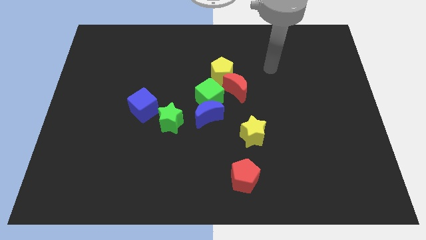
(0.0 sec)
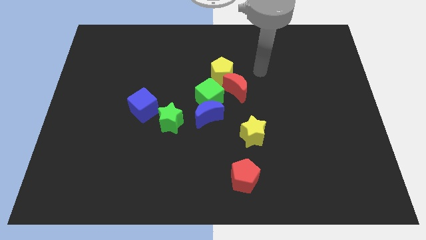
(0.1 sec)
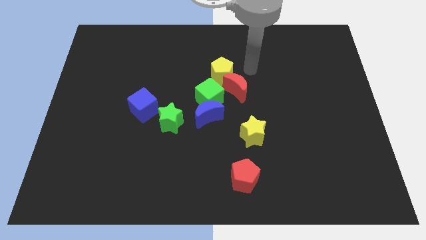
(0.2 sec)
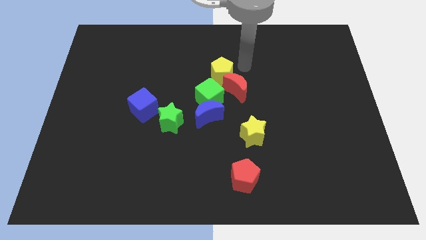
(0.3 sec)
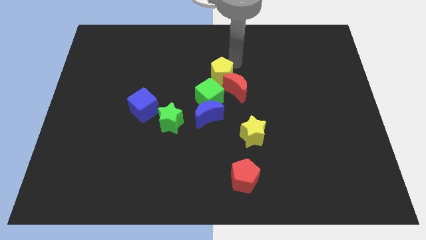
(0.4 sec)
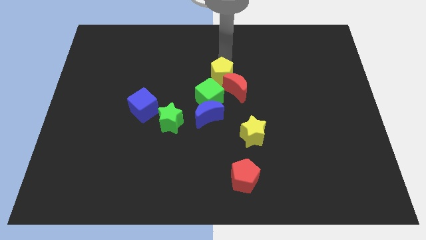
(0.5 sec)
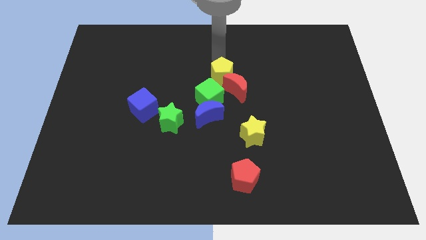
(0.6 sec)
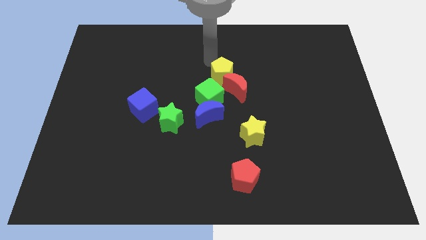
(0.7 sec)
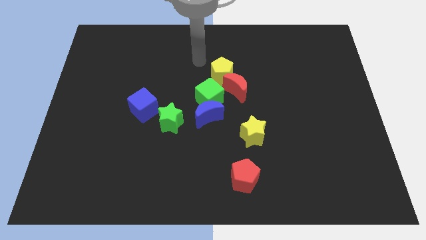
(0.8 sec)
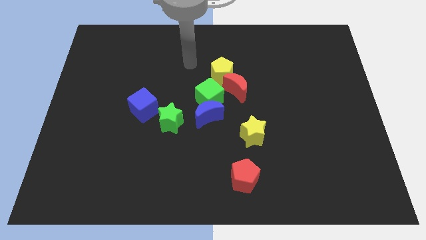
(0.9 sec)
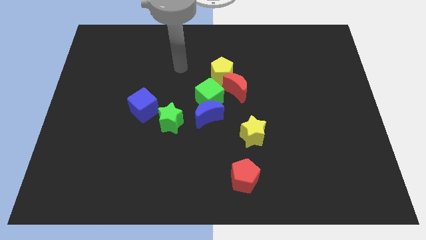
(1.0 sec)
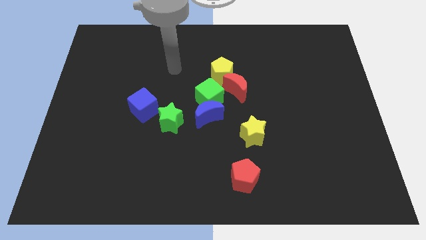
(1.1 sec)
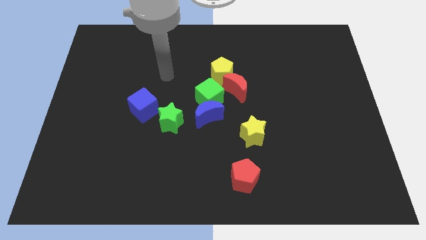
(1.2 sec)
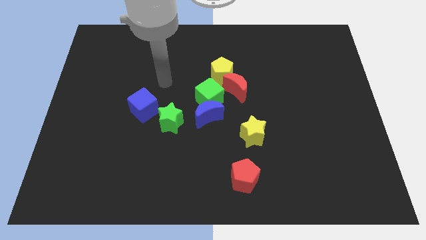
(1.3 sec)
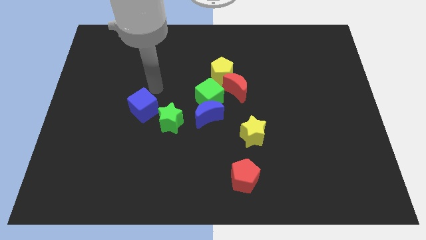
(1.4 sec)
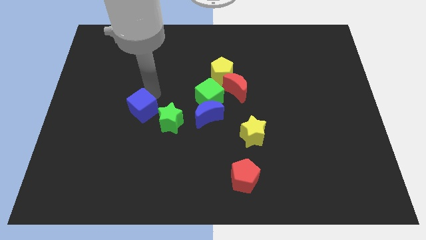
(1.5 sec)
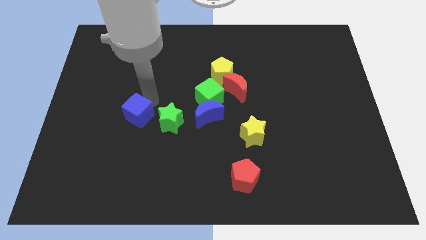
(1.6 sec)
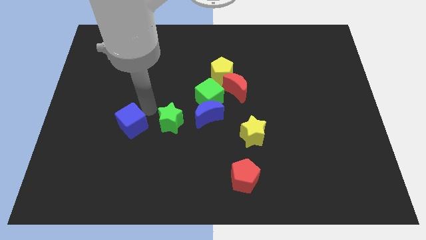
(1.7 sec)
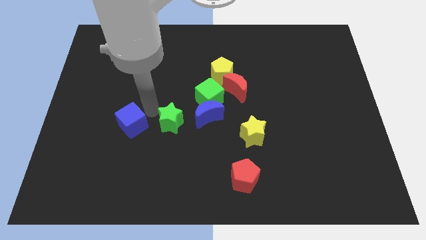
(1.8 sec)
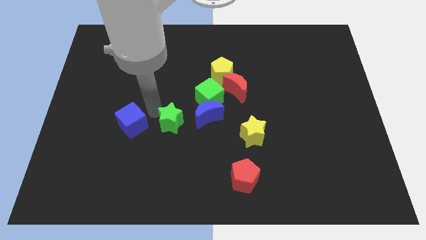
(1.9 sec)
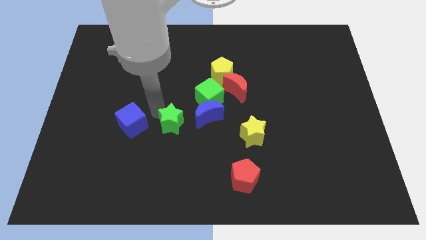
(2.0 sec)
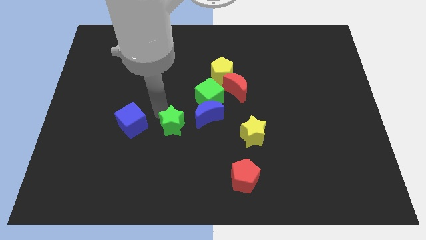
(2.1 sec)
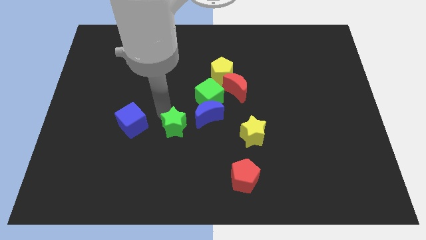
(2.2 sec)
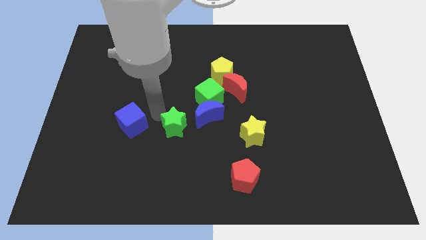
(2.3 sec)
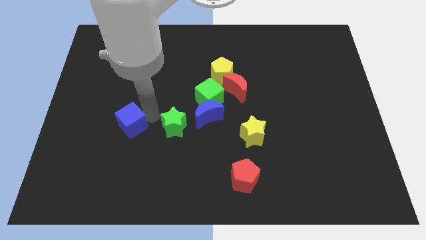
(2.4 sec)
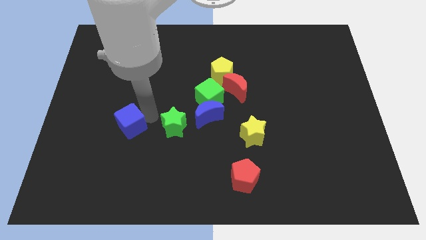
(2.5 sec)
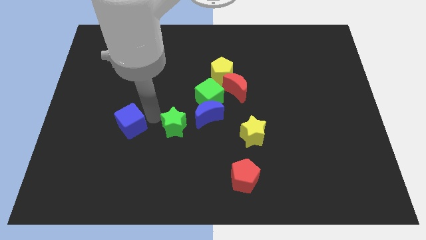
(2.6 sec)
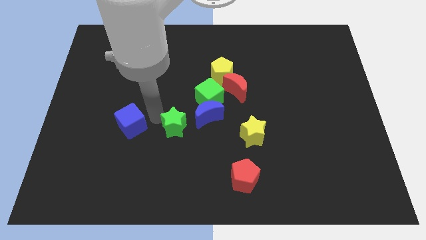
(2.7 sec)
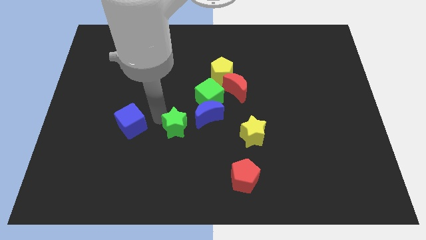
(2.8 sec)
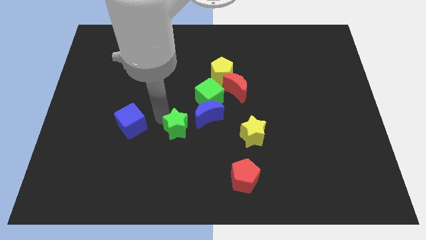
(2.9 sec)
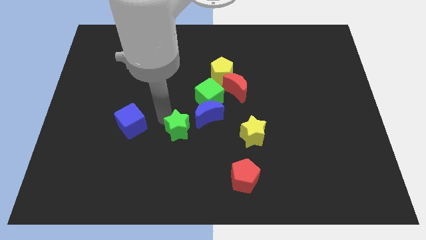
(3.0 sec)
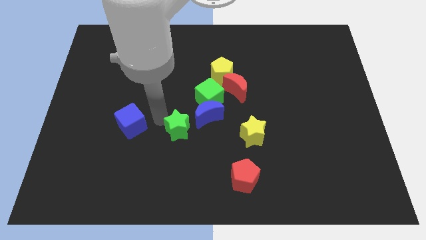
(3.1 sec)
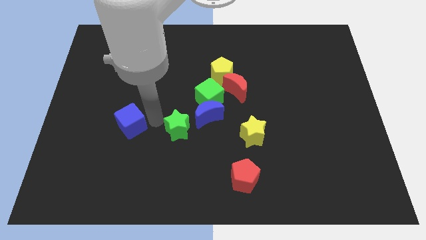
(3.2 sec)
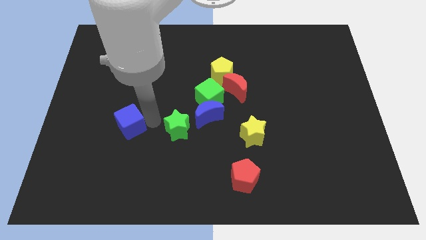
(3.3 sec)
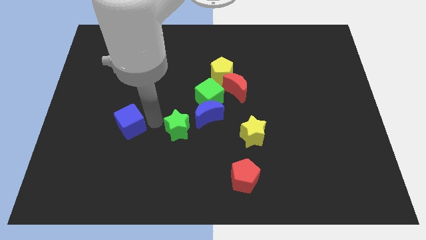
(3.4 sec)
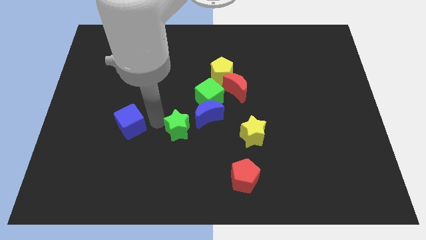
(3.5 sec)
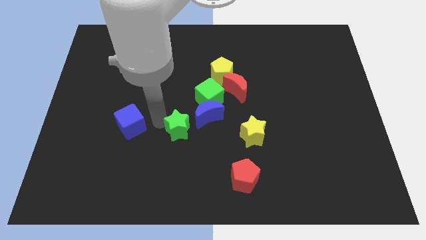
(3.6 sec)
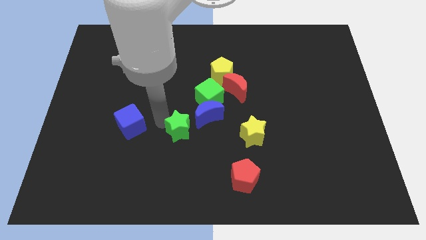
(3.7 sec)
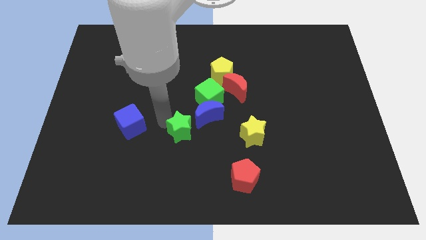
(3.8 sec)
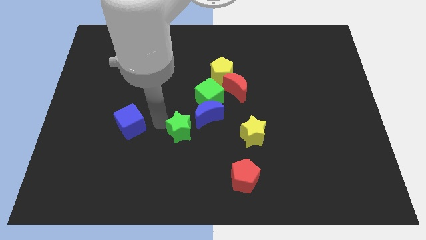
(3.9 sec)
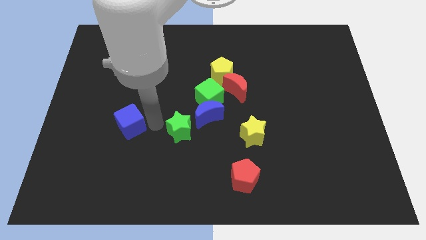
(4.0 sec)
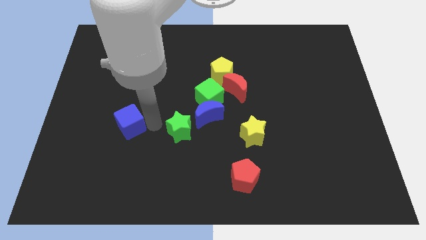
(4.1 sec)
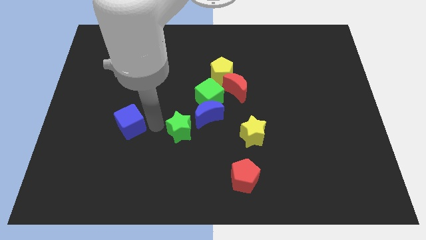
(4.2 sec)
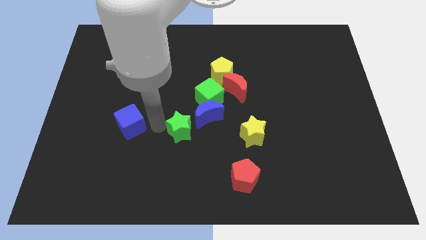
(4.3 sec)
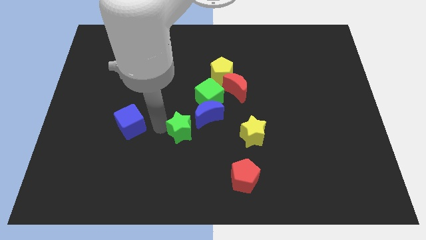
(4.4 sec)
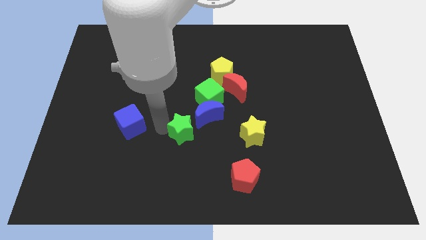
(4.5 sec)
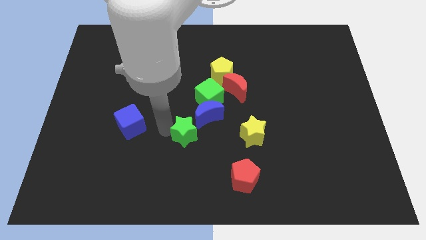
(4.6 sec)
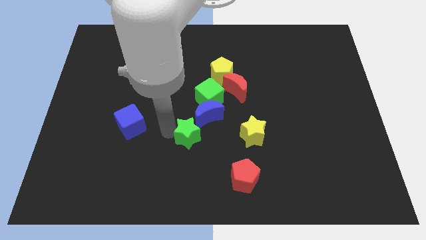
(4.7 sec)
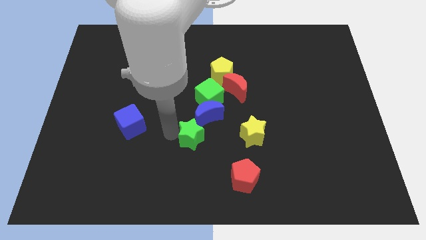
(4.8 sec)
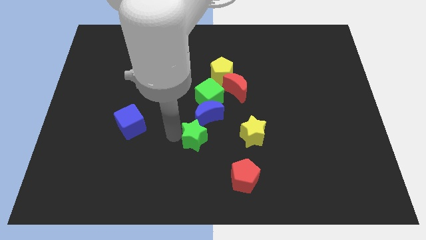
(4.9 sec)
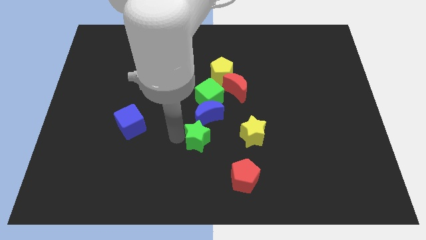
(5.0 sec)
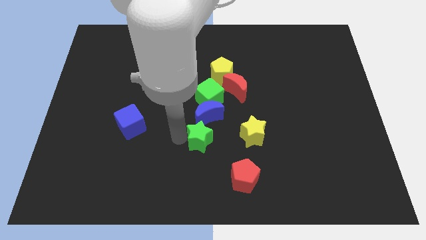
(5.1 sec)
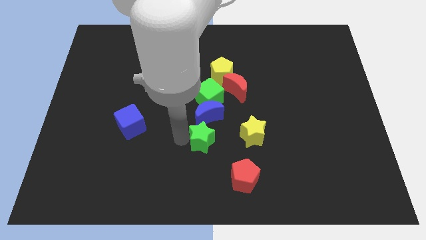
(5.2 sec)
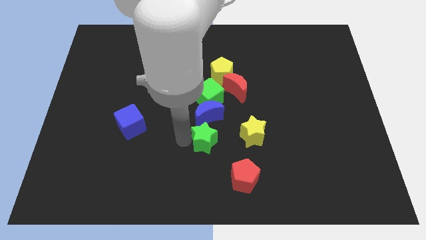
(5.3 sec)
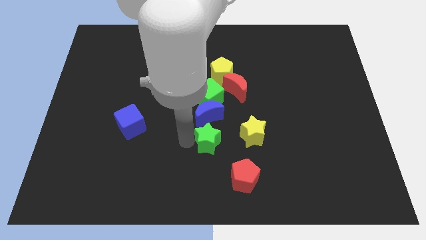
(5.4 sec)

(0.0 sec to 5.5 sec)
slightly slide the green star to the right

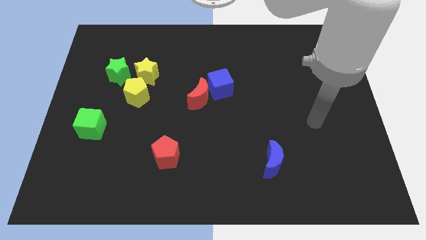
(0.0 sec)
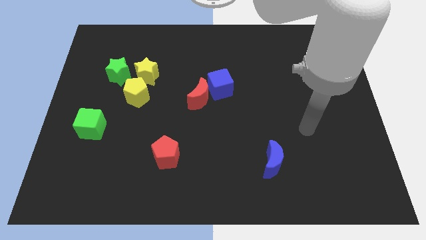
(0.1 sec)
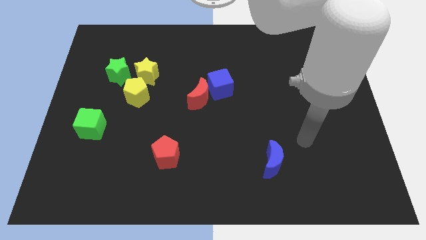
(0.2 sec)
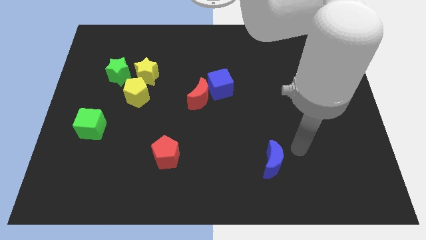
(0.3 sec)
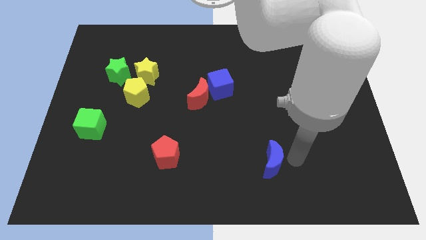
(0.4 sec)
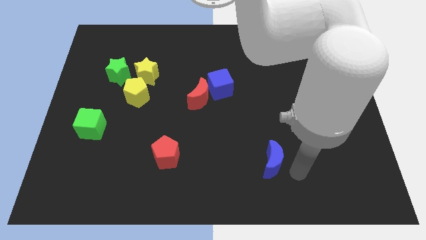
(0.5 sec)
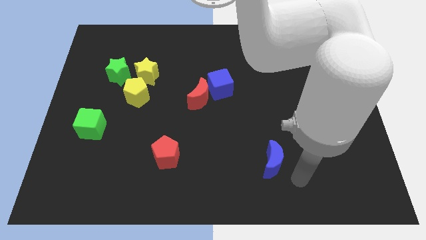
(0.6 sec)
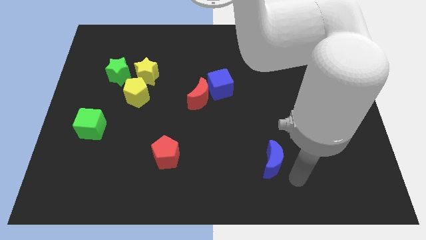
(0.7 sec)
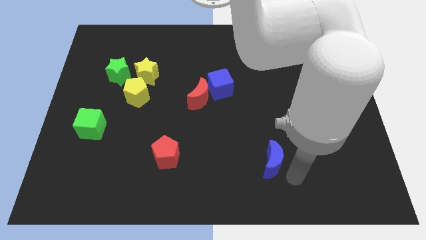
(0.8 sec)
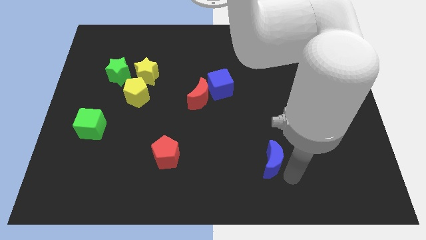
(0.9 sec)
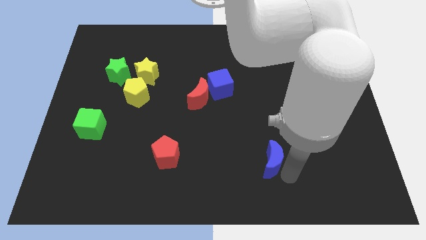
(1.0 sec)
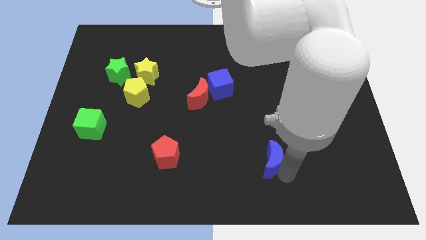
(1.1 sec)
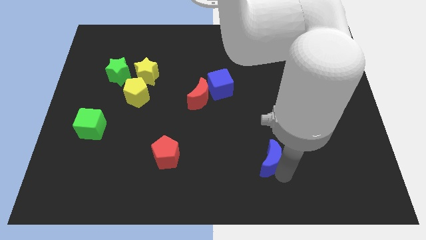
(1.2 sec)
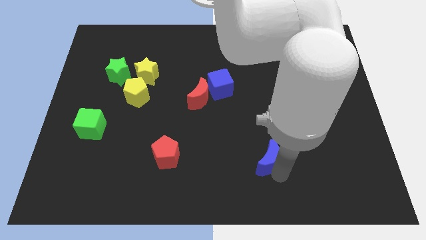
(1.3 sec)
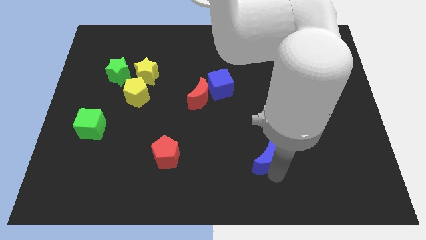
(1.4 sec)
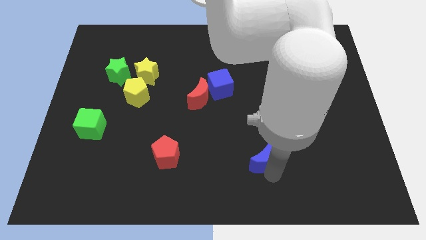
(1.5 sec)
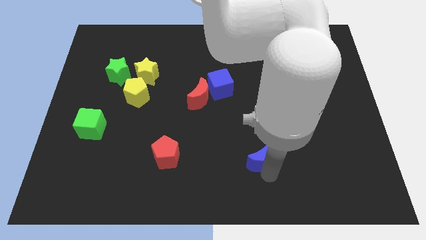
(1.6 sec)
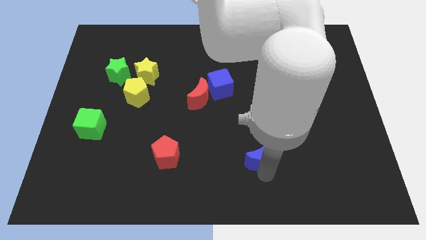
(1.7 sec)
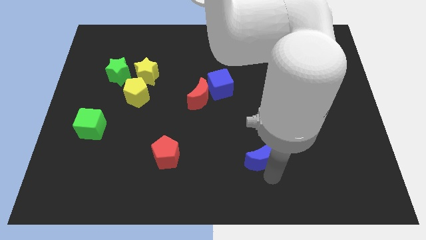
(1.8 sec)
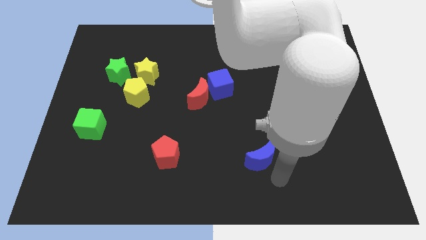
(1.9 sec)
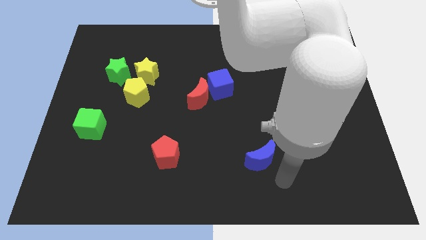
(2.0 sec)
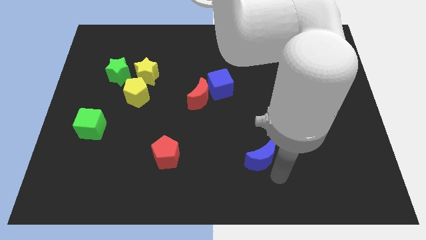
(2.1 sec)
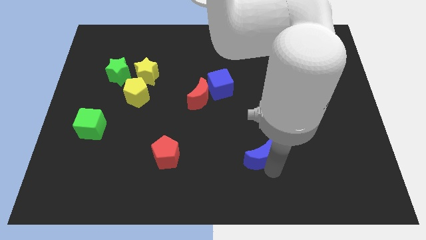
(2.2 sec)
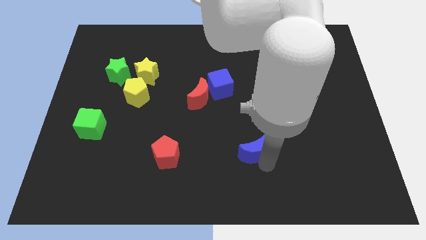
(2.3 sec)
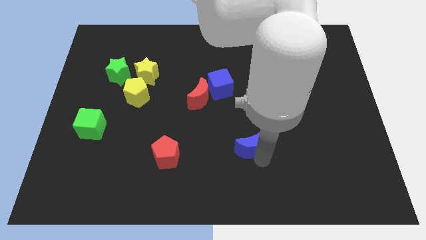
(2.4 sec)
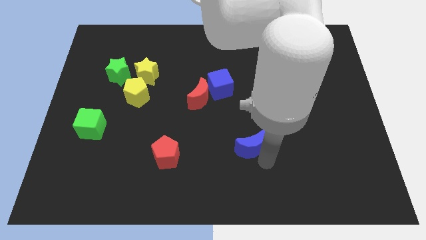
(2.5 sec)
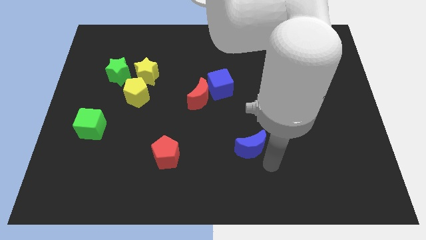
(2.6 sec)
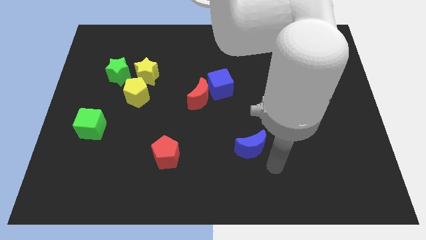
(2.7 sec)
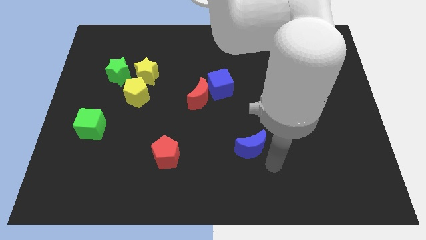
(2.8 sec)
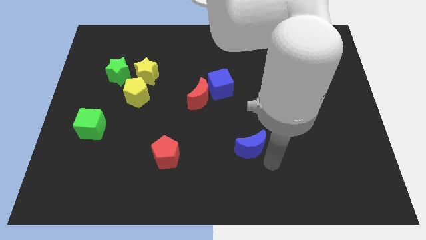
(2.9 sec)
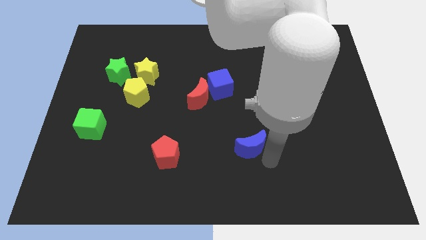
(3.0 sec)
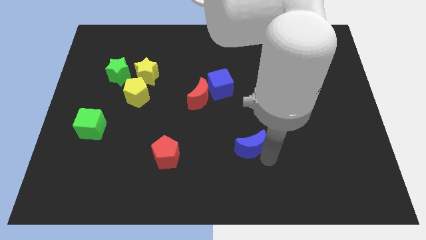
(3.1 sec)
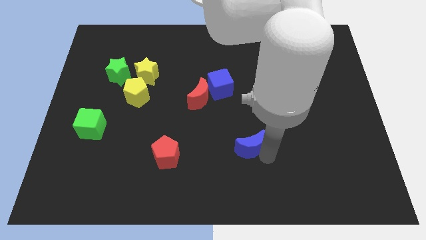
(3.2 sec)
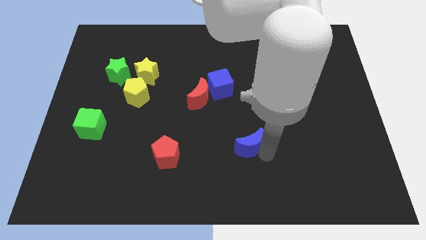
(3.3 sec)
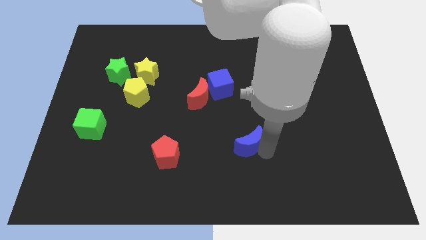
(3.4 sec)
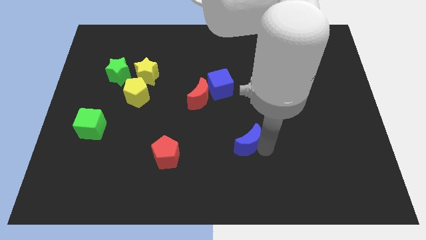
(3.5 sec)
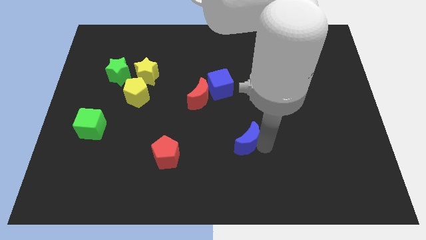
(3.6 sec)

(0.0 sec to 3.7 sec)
slide the blue moon a little bit diagonally up and to the left
